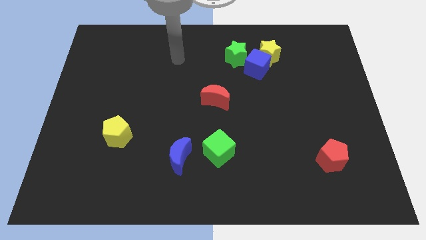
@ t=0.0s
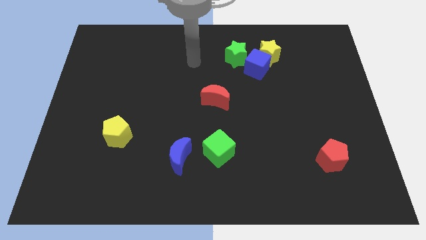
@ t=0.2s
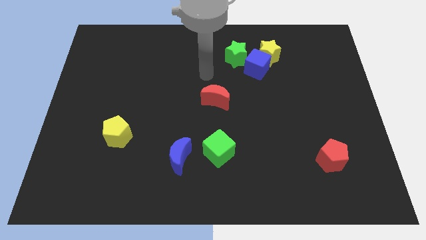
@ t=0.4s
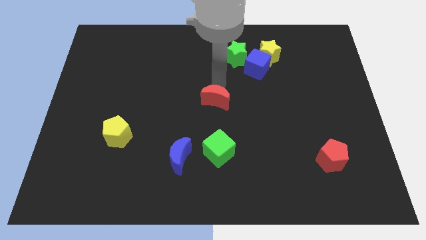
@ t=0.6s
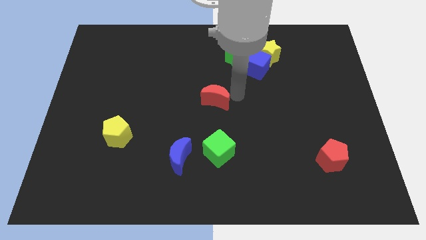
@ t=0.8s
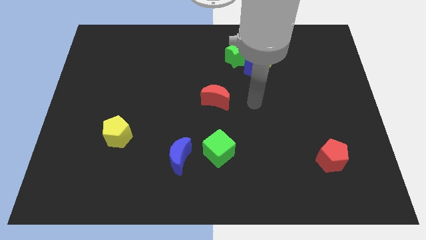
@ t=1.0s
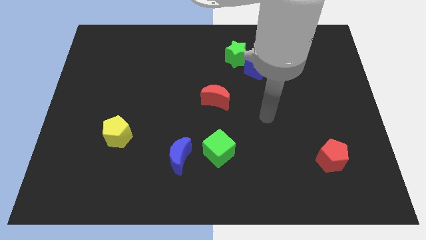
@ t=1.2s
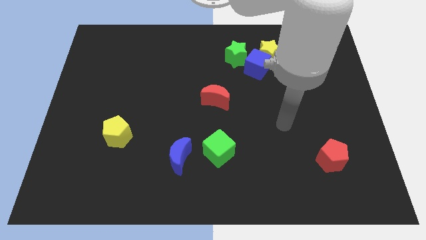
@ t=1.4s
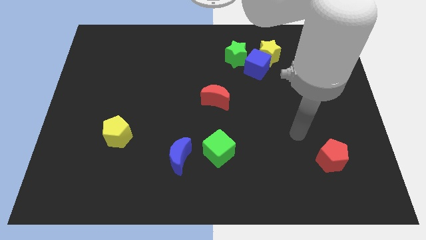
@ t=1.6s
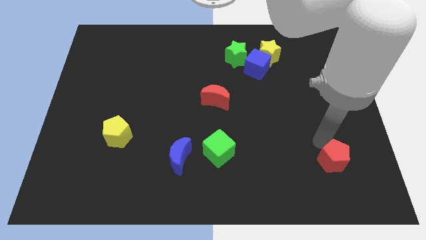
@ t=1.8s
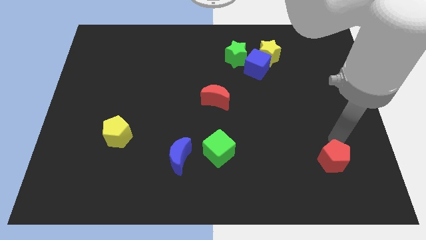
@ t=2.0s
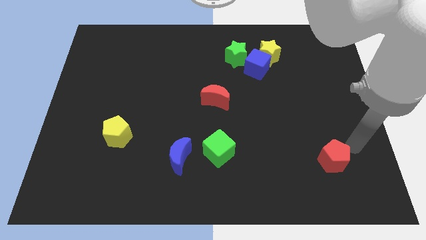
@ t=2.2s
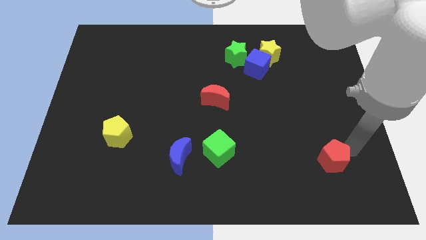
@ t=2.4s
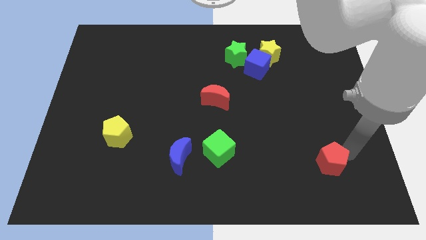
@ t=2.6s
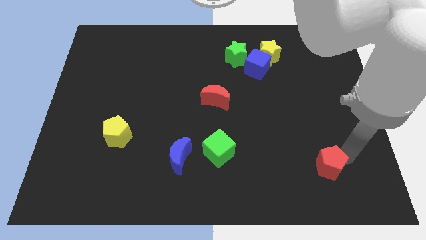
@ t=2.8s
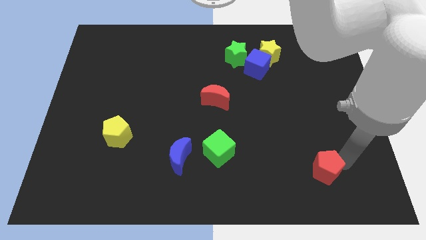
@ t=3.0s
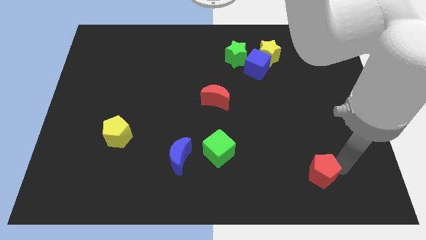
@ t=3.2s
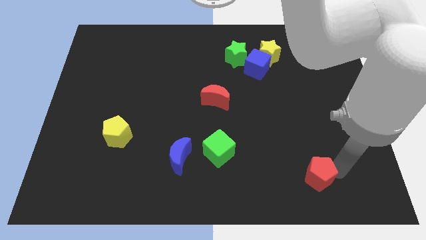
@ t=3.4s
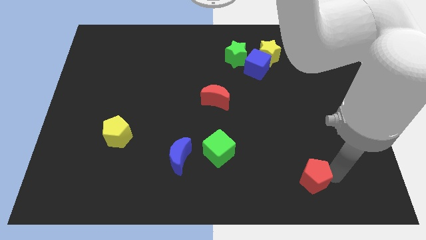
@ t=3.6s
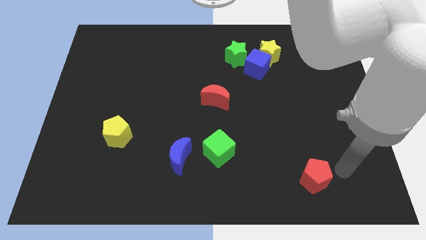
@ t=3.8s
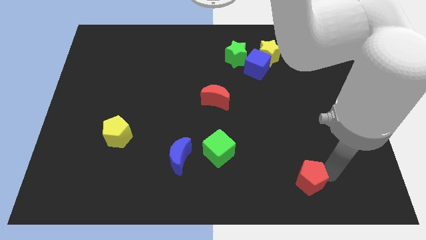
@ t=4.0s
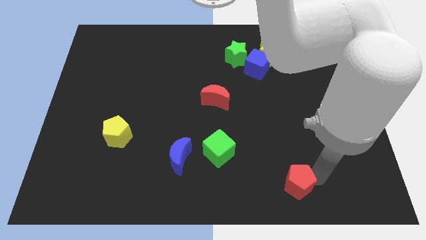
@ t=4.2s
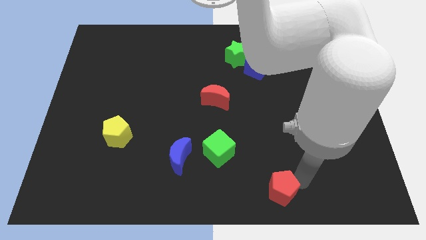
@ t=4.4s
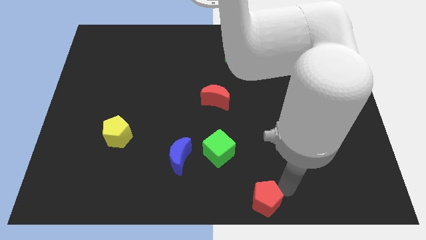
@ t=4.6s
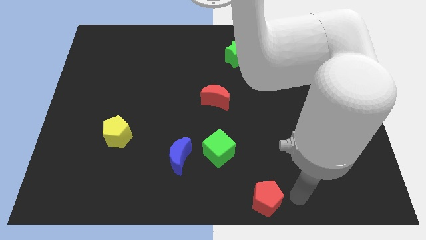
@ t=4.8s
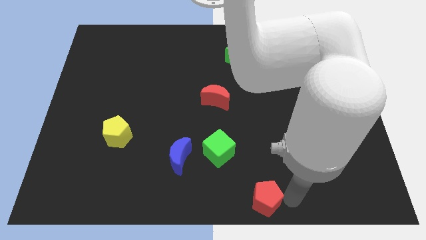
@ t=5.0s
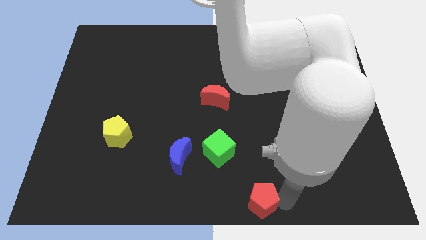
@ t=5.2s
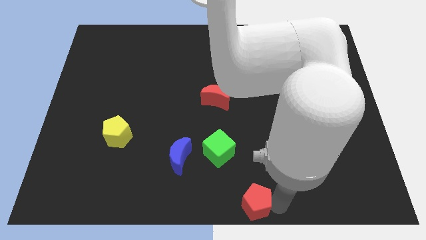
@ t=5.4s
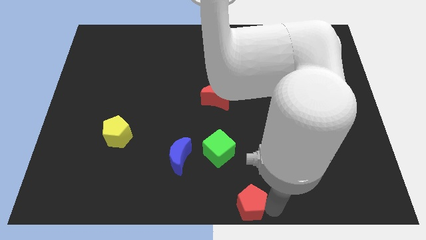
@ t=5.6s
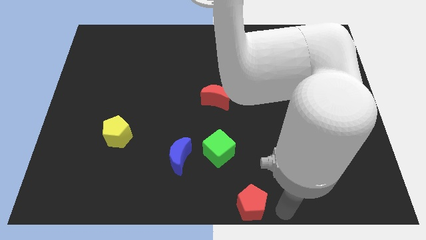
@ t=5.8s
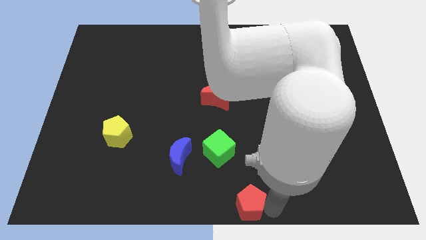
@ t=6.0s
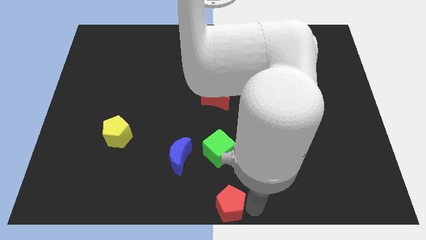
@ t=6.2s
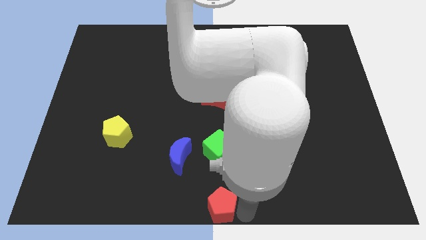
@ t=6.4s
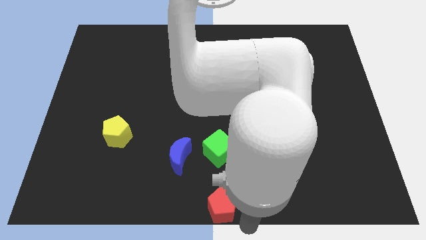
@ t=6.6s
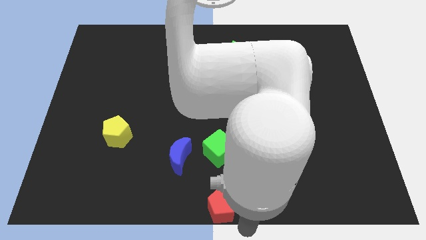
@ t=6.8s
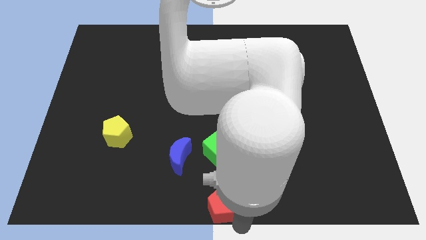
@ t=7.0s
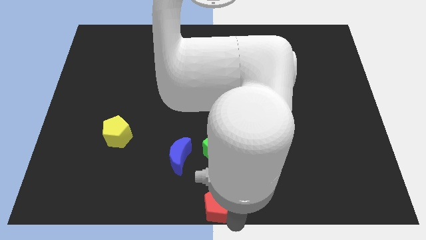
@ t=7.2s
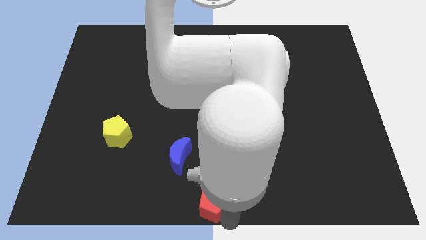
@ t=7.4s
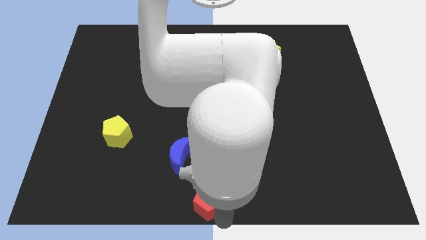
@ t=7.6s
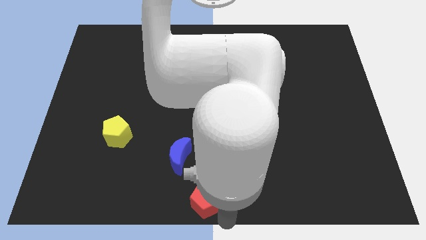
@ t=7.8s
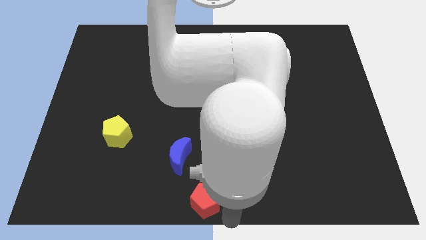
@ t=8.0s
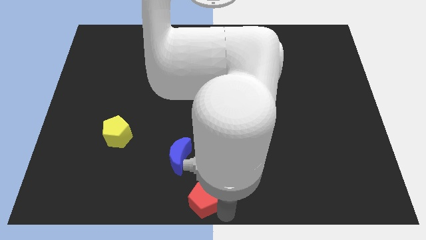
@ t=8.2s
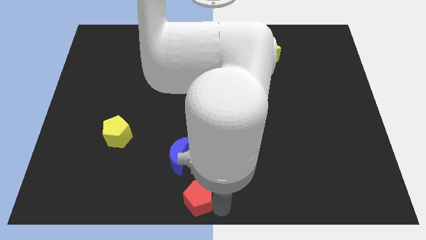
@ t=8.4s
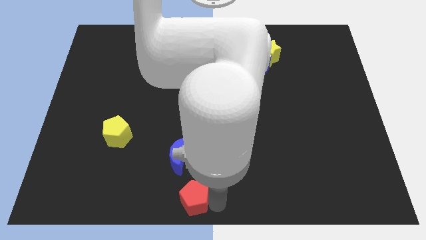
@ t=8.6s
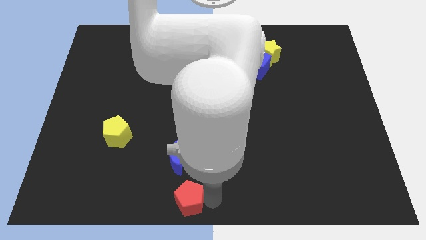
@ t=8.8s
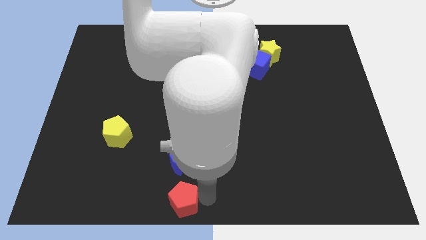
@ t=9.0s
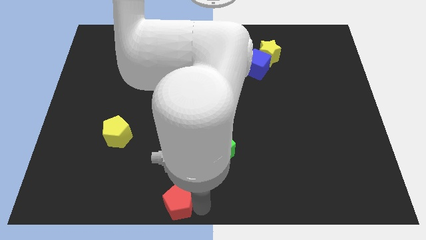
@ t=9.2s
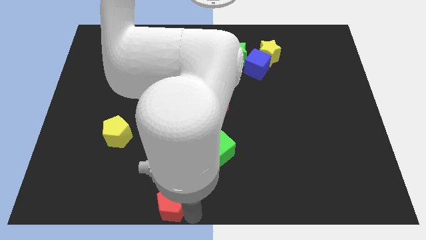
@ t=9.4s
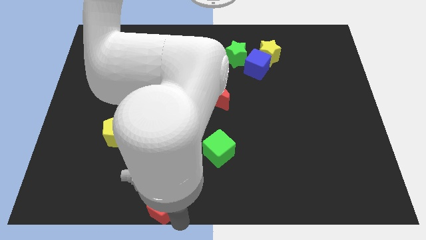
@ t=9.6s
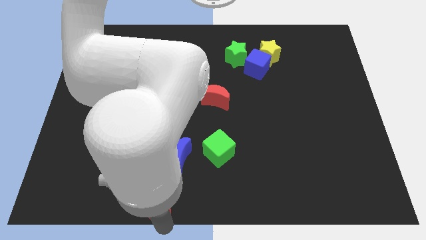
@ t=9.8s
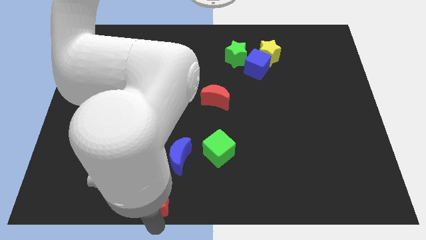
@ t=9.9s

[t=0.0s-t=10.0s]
slide the red pentagon diagonally down and to the left of the blue moon

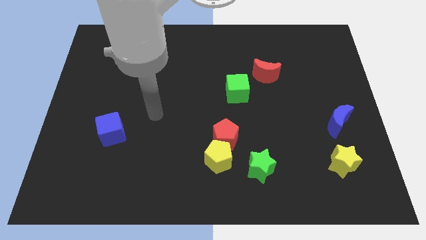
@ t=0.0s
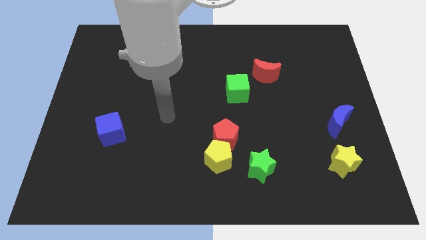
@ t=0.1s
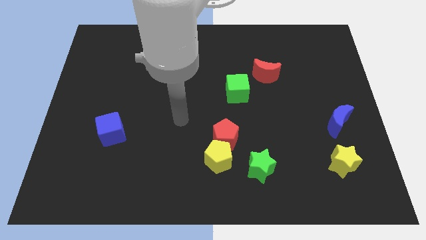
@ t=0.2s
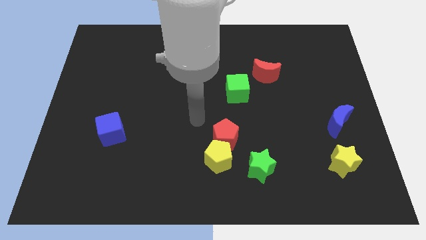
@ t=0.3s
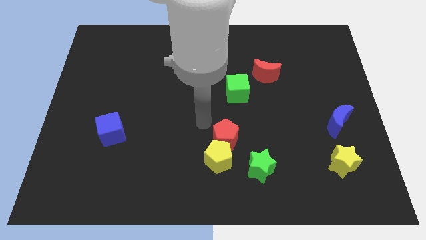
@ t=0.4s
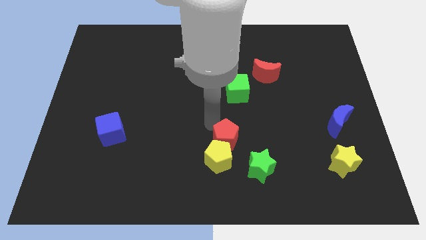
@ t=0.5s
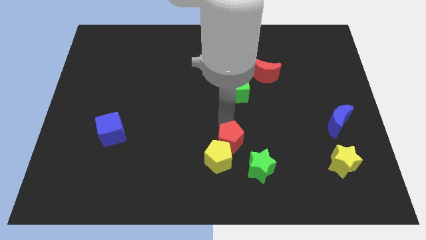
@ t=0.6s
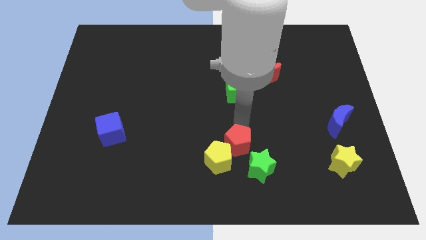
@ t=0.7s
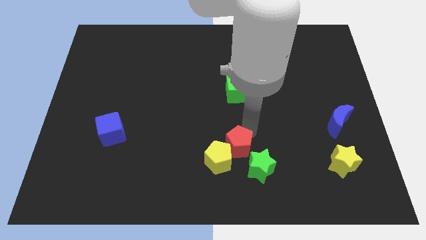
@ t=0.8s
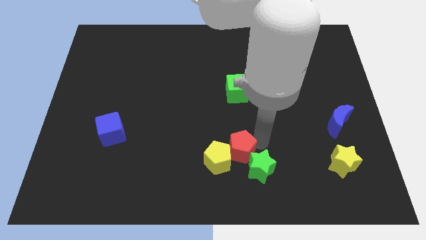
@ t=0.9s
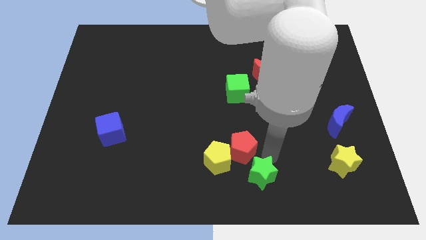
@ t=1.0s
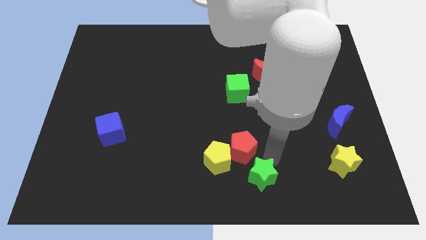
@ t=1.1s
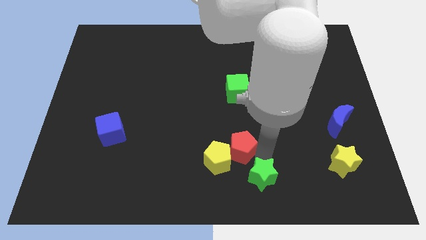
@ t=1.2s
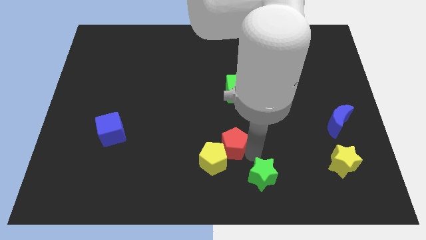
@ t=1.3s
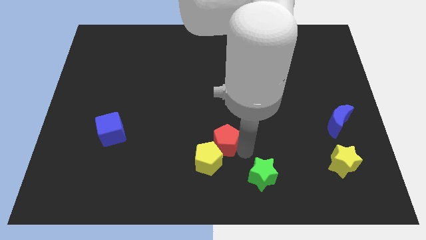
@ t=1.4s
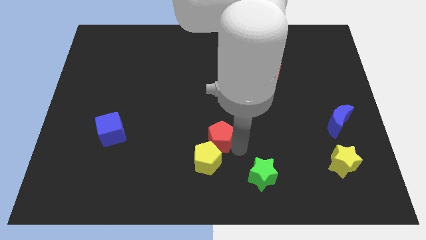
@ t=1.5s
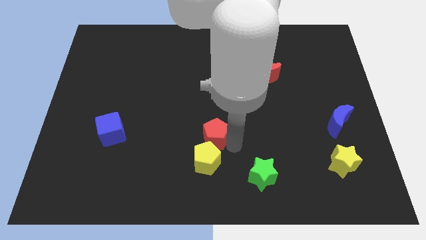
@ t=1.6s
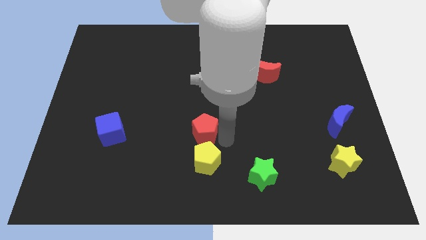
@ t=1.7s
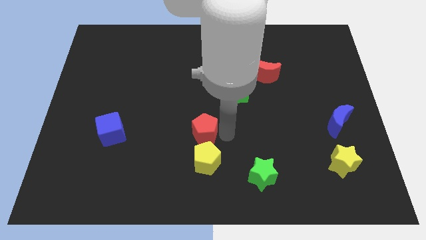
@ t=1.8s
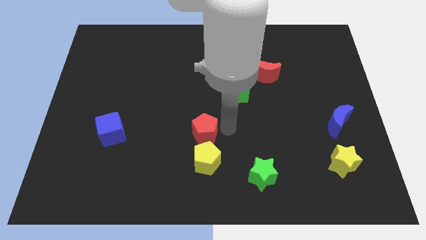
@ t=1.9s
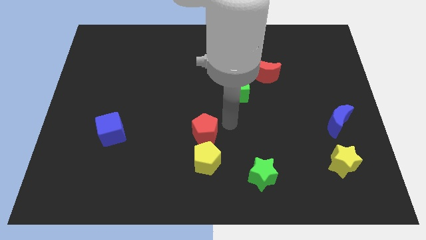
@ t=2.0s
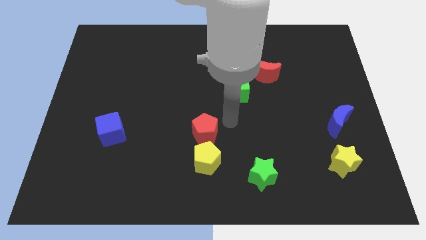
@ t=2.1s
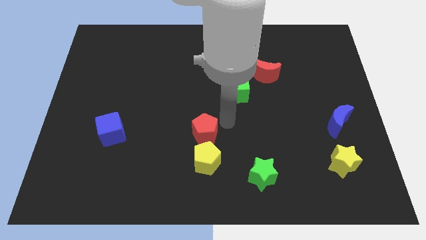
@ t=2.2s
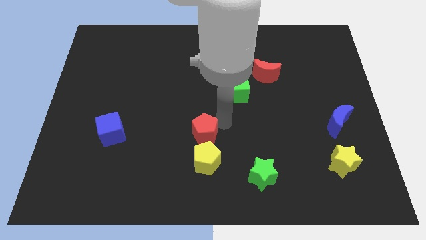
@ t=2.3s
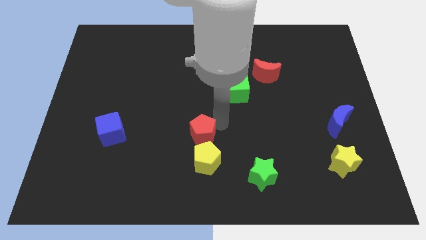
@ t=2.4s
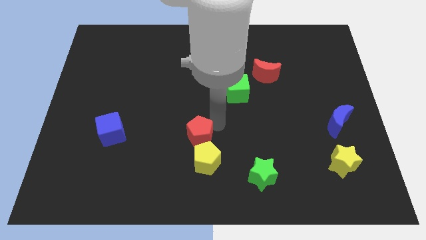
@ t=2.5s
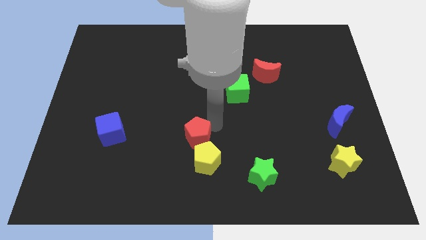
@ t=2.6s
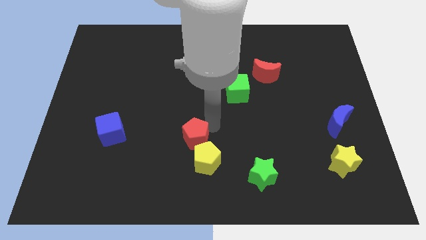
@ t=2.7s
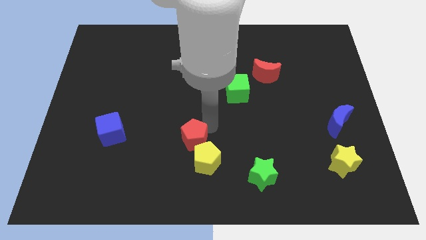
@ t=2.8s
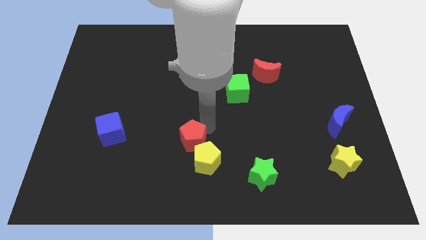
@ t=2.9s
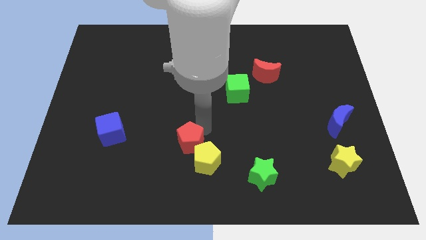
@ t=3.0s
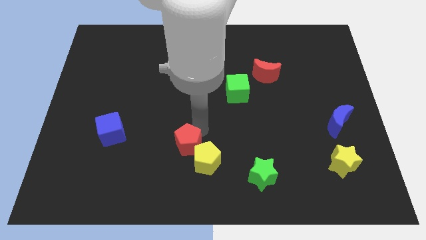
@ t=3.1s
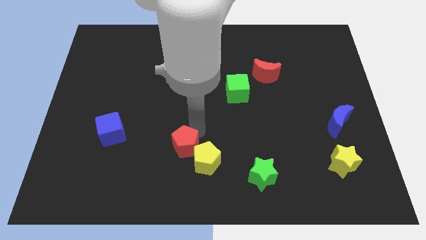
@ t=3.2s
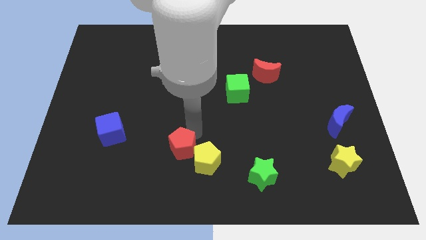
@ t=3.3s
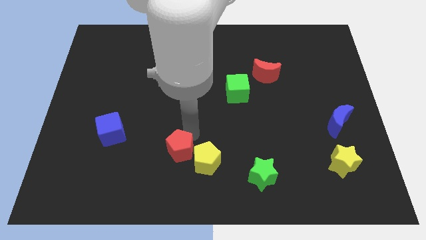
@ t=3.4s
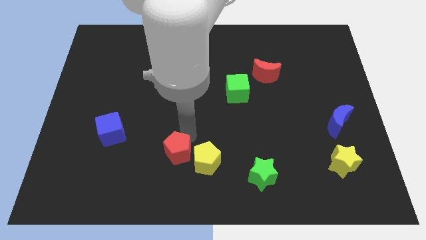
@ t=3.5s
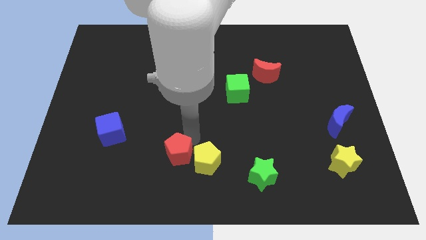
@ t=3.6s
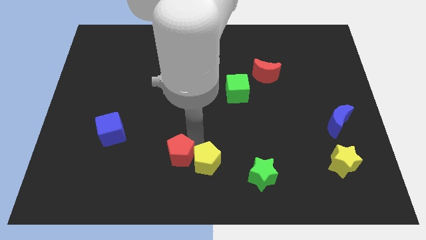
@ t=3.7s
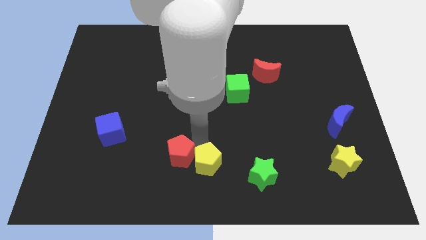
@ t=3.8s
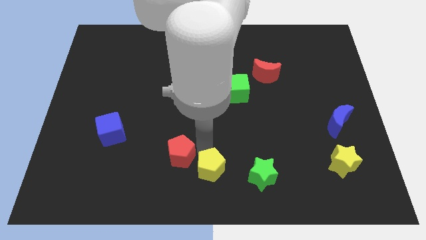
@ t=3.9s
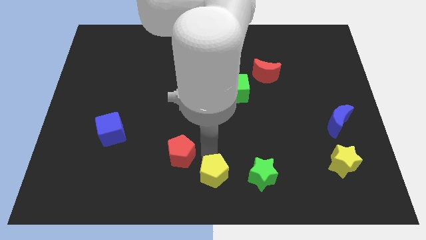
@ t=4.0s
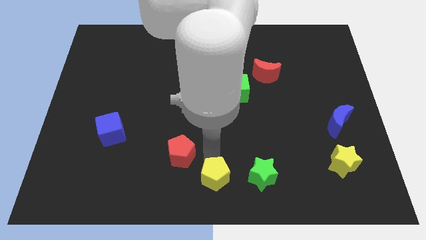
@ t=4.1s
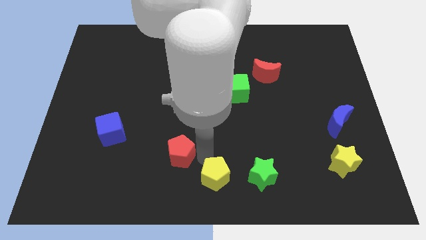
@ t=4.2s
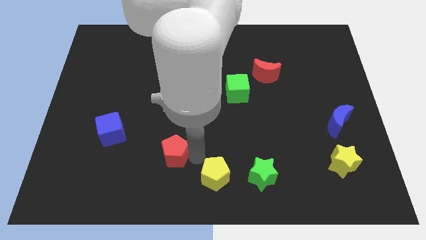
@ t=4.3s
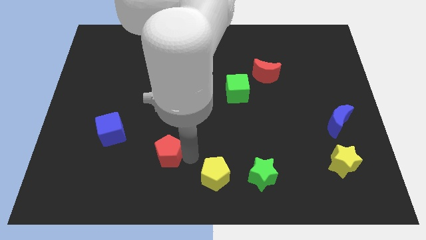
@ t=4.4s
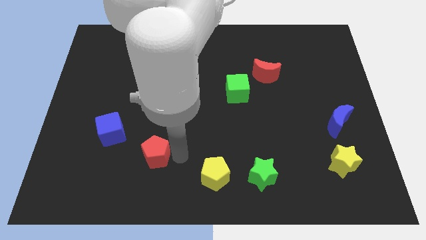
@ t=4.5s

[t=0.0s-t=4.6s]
push the red pentagon to the bottom right of the blue cube
